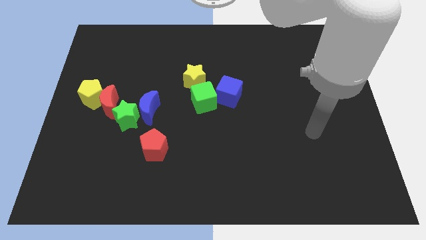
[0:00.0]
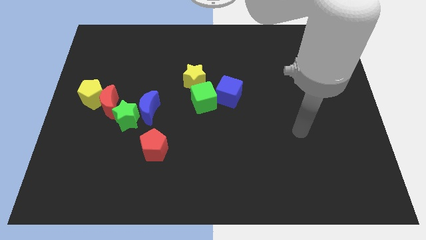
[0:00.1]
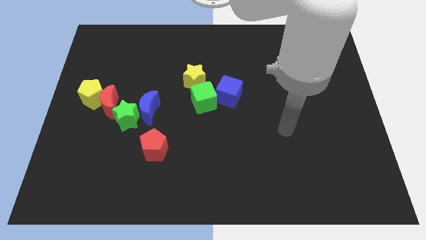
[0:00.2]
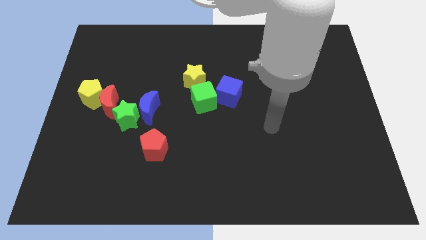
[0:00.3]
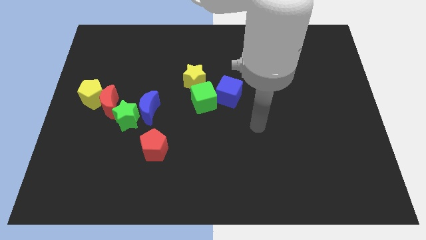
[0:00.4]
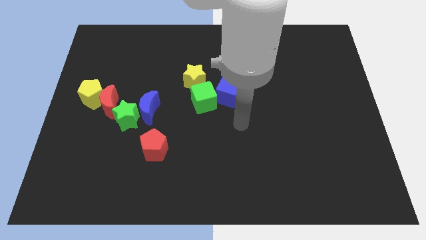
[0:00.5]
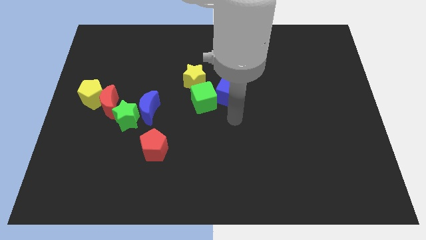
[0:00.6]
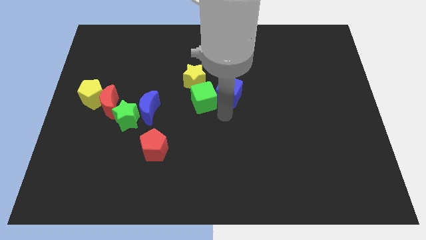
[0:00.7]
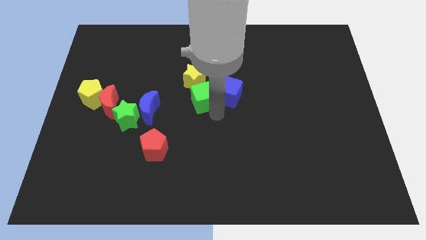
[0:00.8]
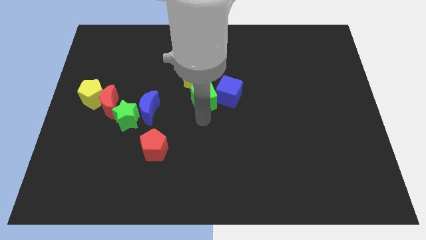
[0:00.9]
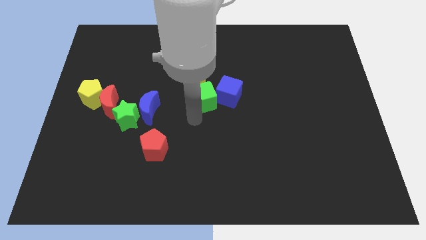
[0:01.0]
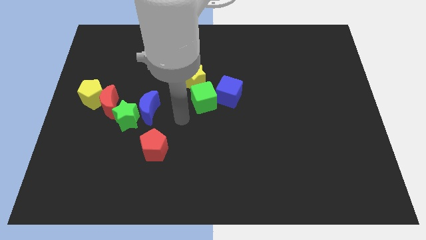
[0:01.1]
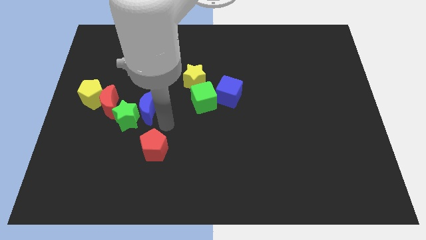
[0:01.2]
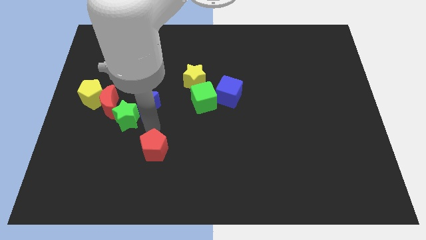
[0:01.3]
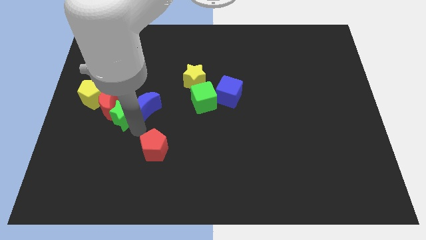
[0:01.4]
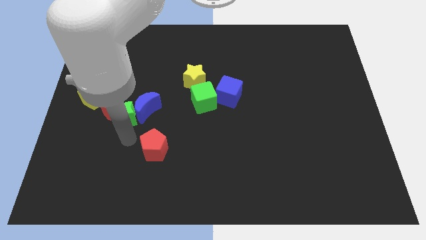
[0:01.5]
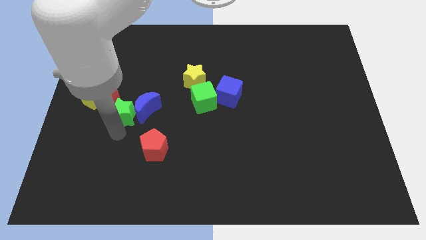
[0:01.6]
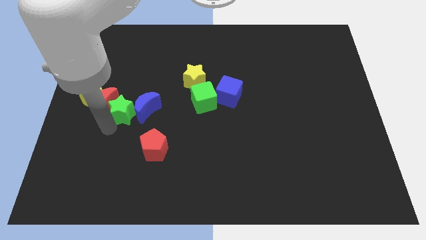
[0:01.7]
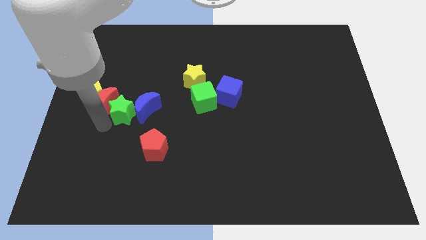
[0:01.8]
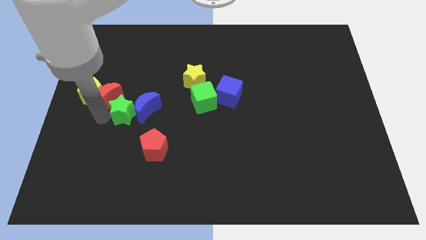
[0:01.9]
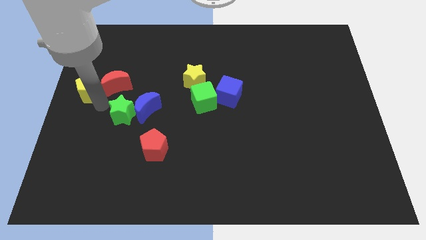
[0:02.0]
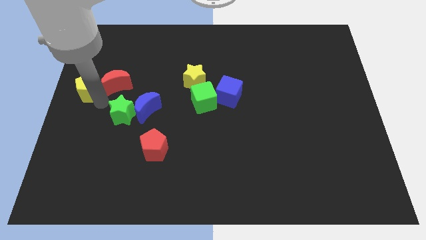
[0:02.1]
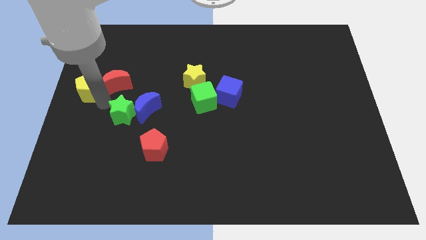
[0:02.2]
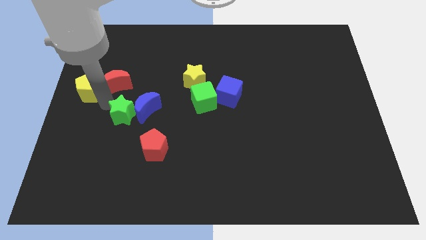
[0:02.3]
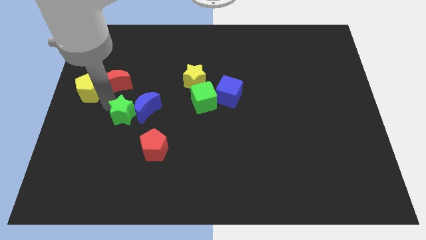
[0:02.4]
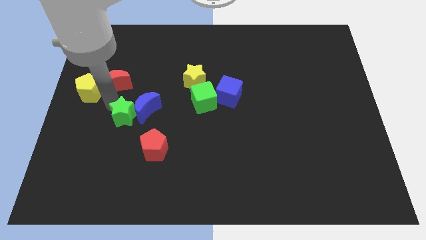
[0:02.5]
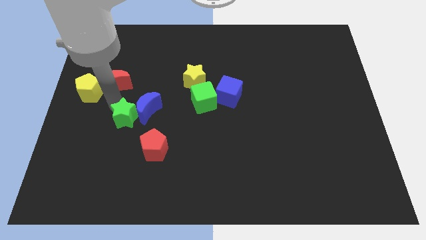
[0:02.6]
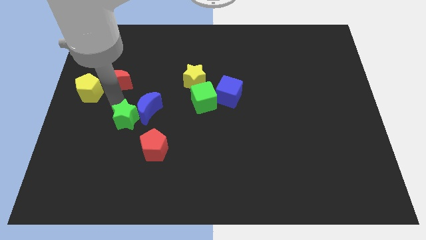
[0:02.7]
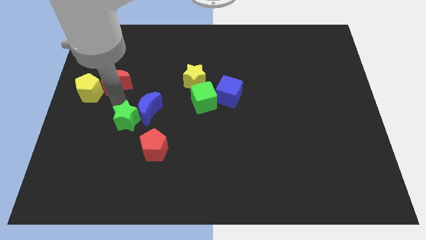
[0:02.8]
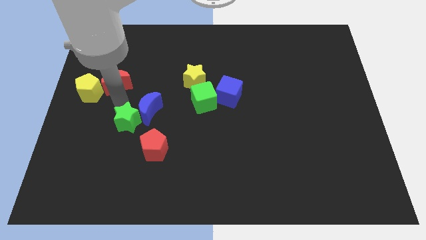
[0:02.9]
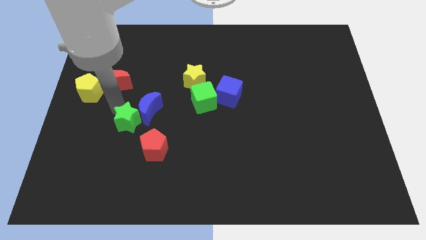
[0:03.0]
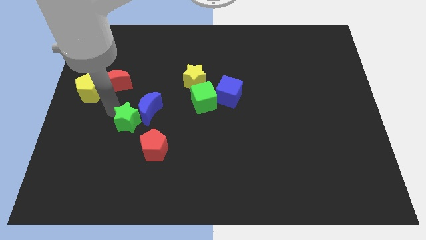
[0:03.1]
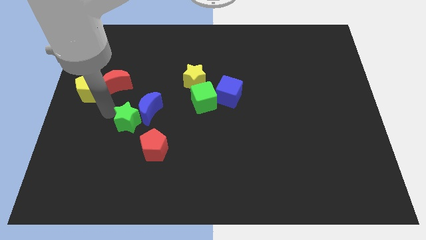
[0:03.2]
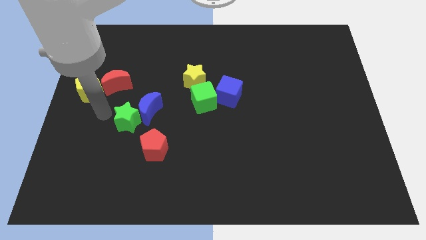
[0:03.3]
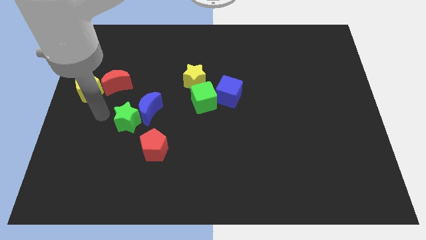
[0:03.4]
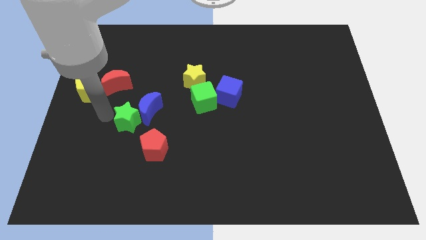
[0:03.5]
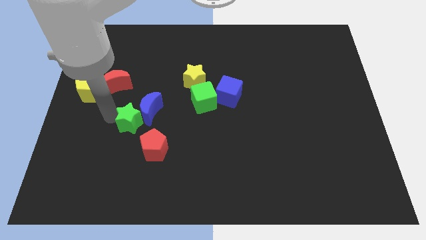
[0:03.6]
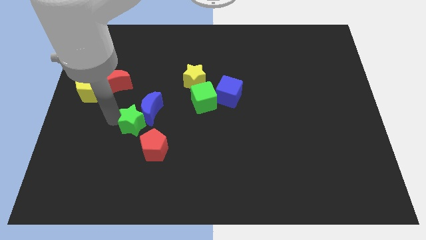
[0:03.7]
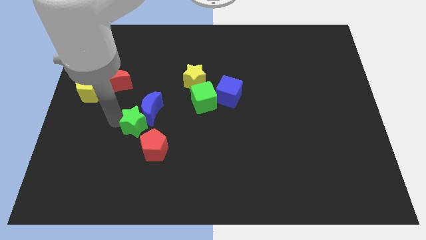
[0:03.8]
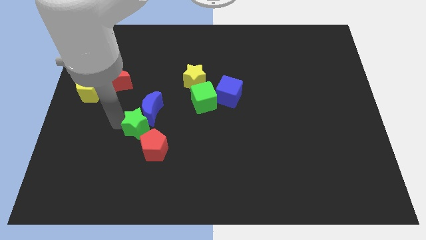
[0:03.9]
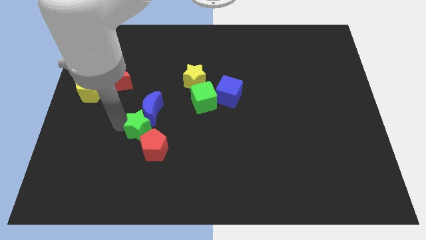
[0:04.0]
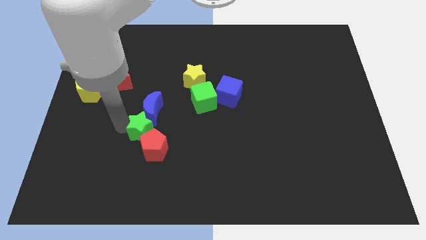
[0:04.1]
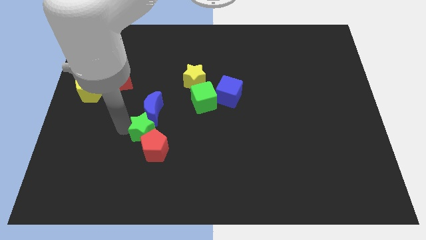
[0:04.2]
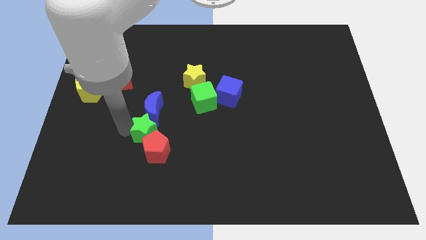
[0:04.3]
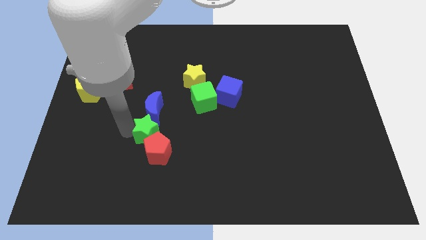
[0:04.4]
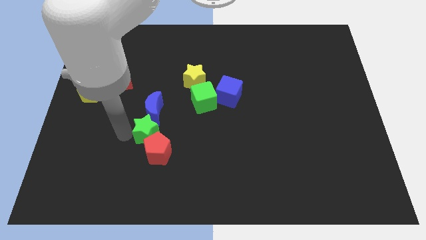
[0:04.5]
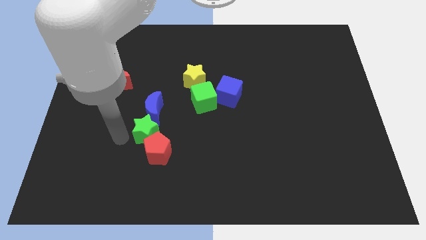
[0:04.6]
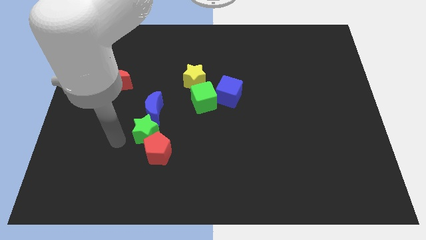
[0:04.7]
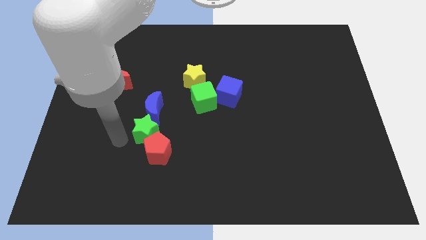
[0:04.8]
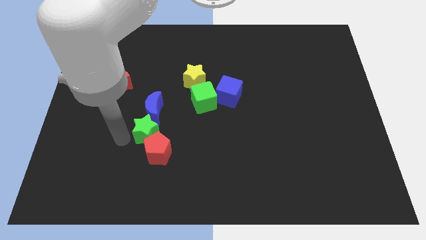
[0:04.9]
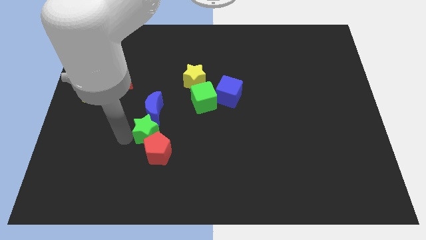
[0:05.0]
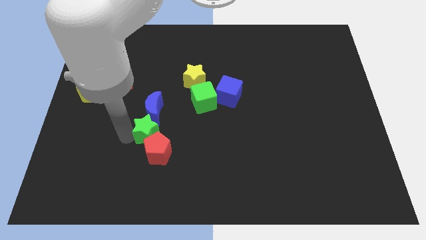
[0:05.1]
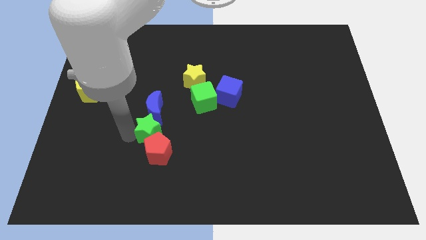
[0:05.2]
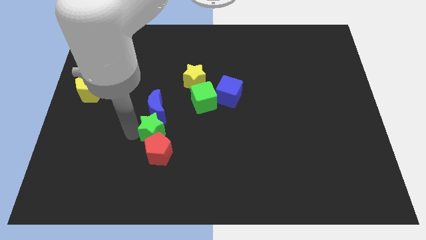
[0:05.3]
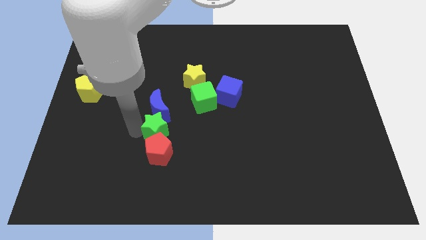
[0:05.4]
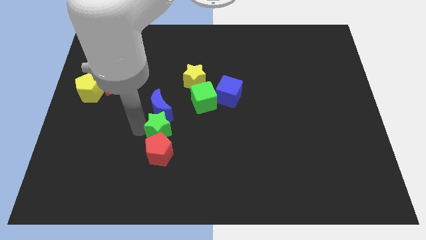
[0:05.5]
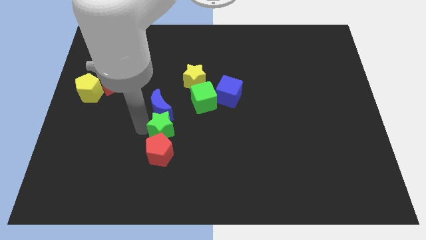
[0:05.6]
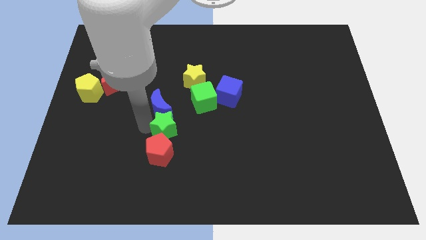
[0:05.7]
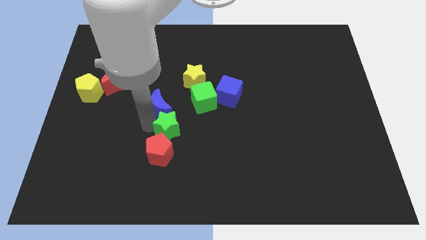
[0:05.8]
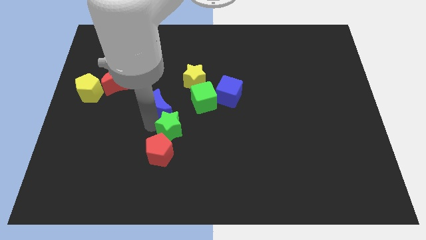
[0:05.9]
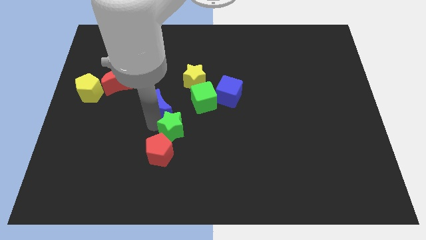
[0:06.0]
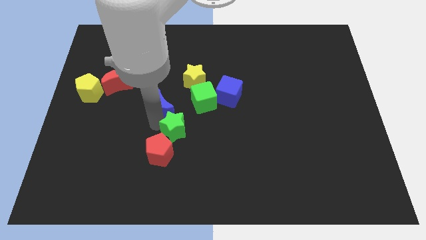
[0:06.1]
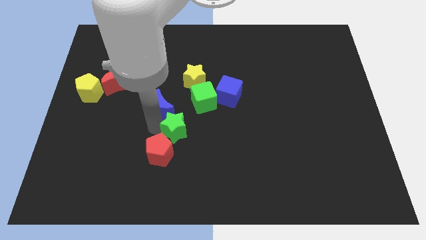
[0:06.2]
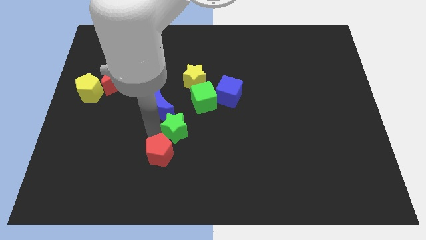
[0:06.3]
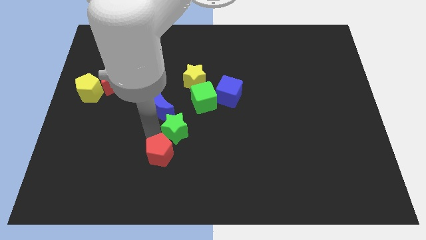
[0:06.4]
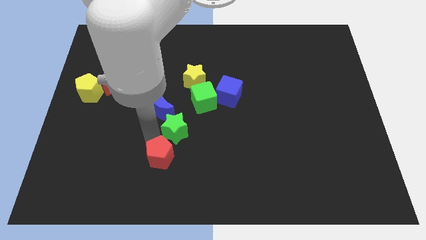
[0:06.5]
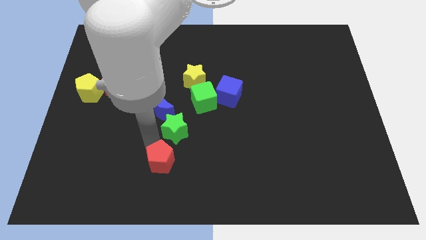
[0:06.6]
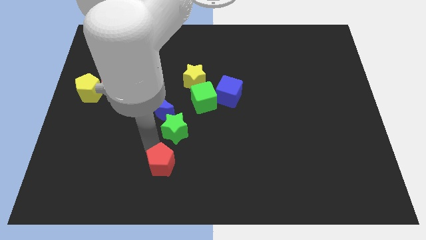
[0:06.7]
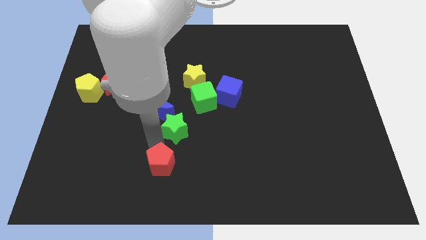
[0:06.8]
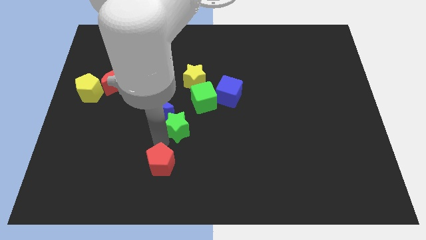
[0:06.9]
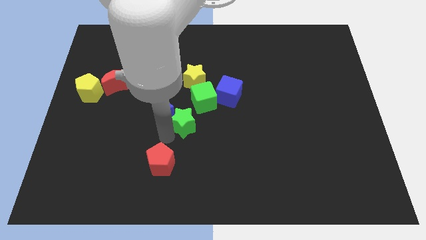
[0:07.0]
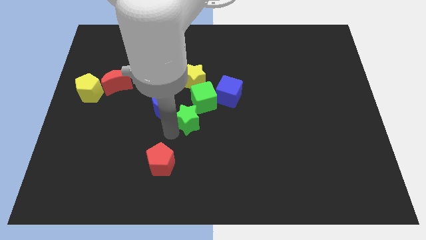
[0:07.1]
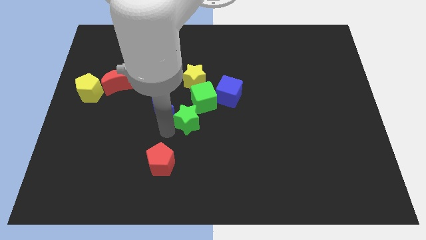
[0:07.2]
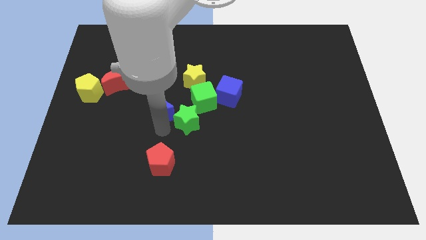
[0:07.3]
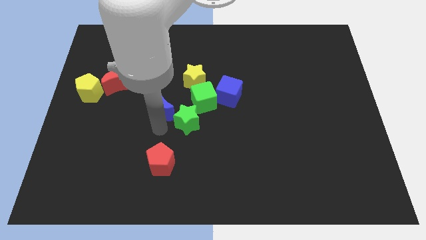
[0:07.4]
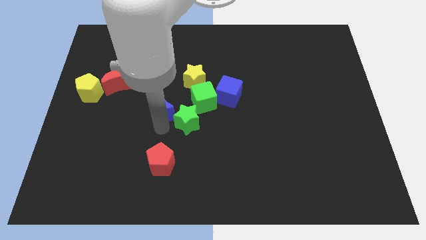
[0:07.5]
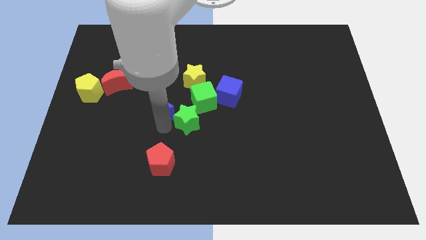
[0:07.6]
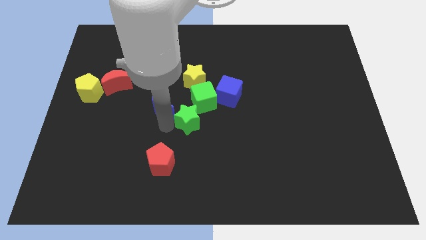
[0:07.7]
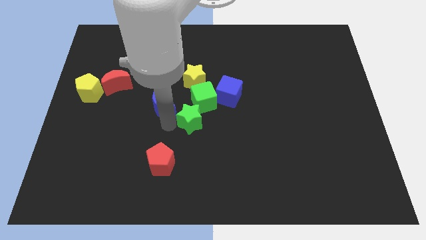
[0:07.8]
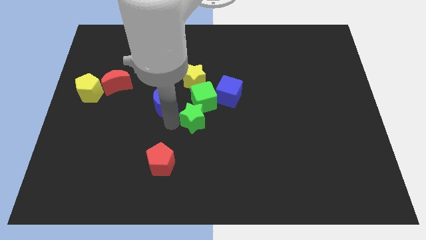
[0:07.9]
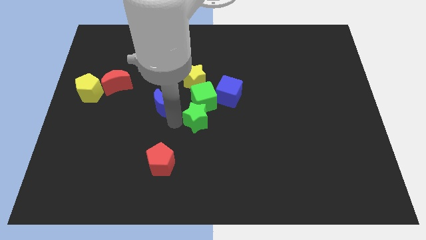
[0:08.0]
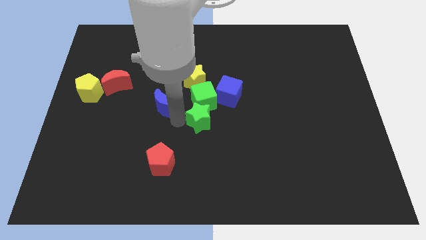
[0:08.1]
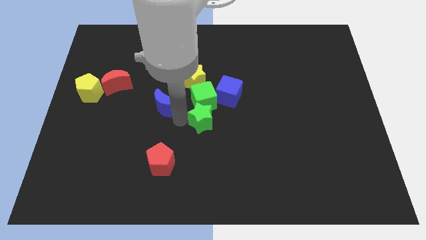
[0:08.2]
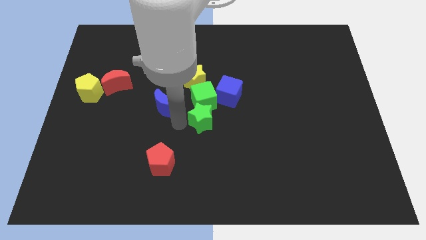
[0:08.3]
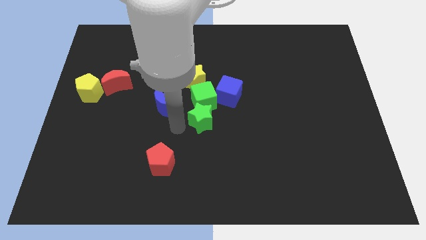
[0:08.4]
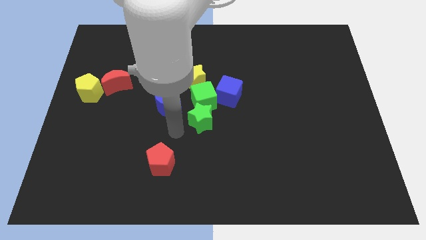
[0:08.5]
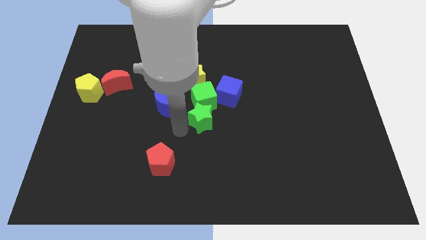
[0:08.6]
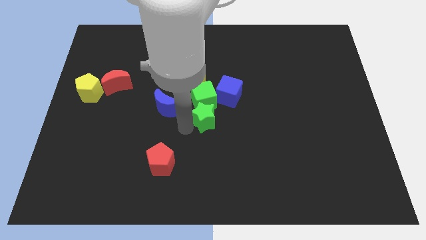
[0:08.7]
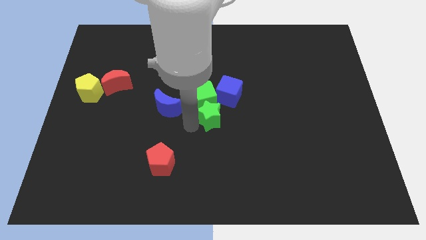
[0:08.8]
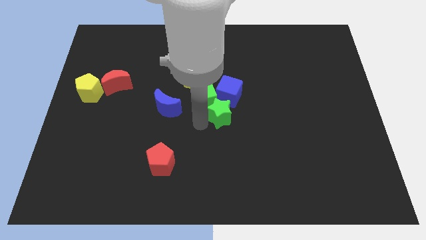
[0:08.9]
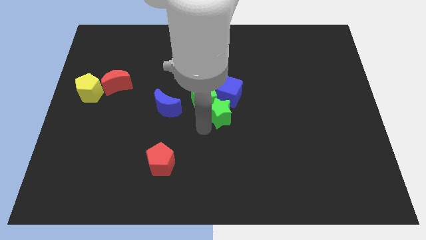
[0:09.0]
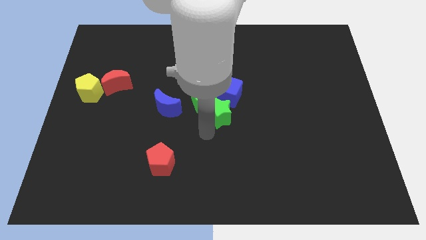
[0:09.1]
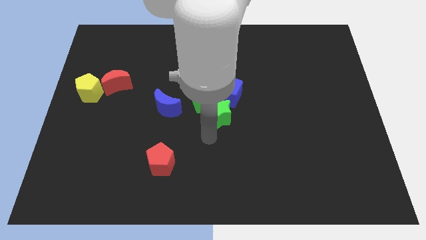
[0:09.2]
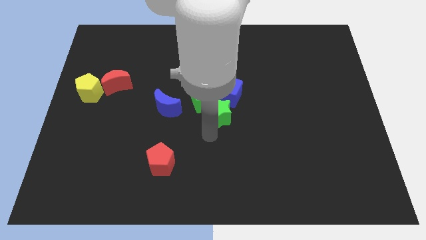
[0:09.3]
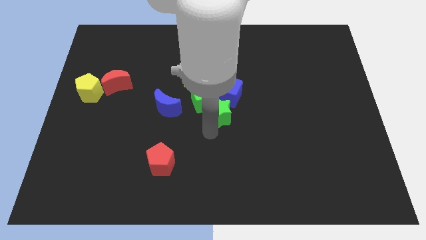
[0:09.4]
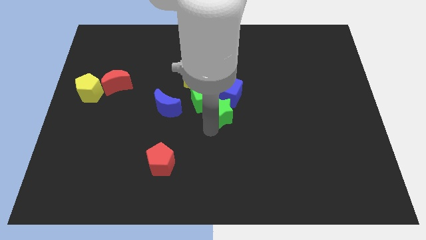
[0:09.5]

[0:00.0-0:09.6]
put the green star towards the blue cube
